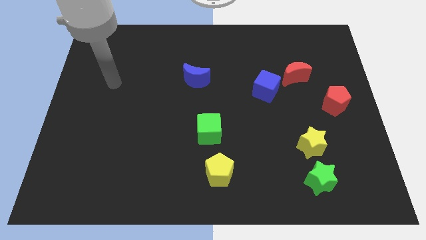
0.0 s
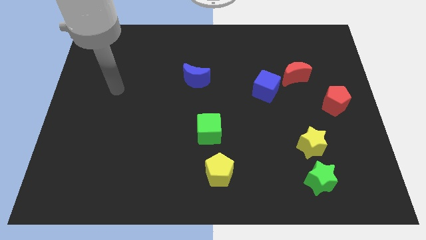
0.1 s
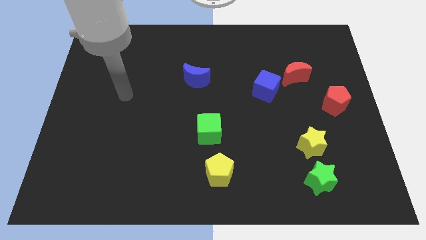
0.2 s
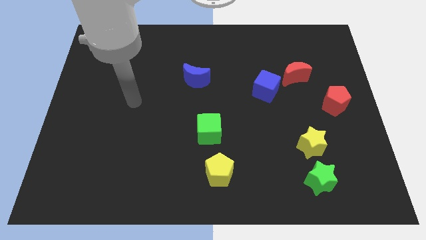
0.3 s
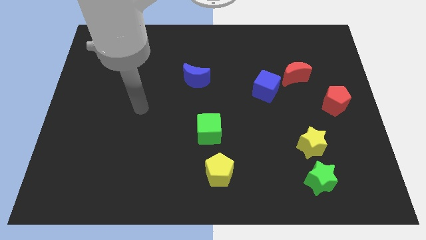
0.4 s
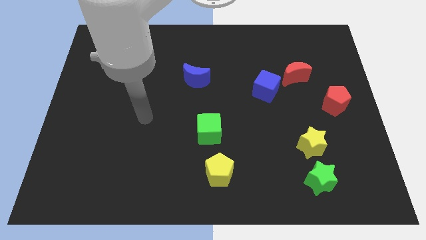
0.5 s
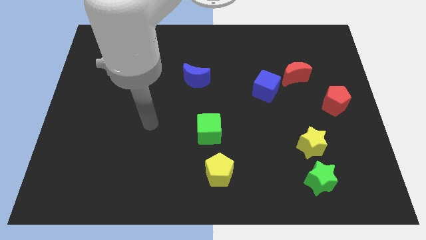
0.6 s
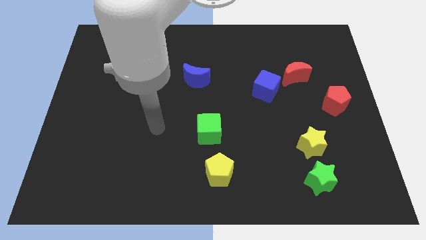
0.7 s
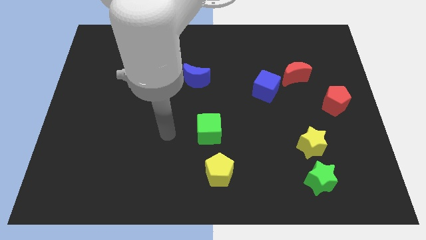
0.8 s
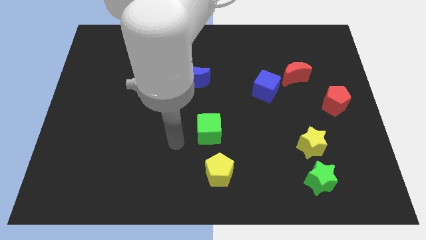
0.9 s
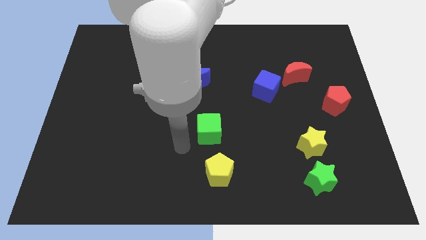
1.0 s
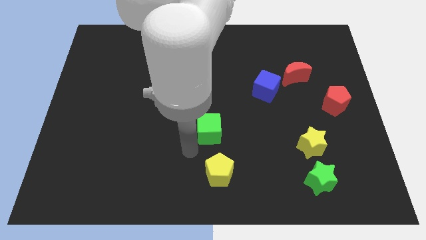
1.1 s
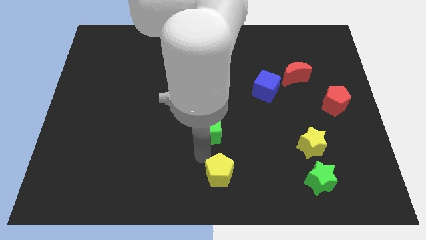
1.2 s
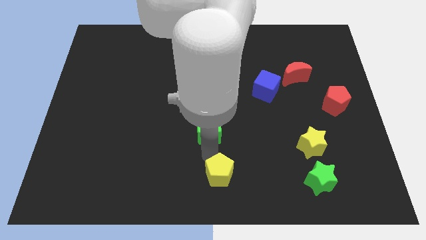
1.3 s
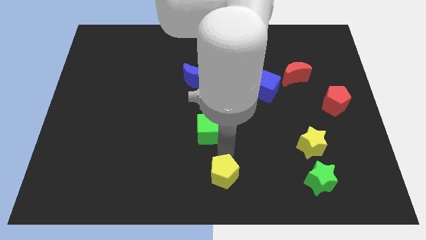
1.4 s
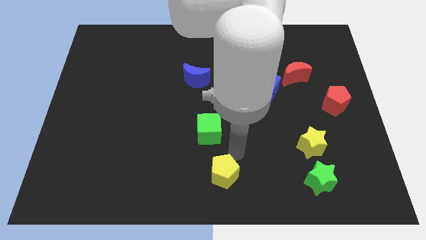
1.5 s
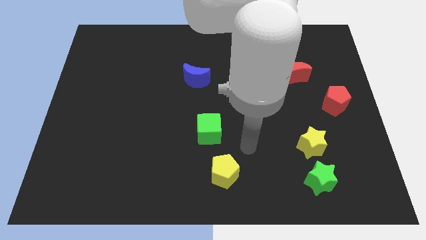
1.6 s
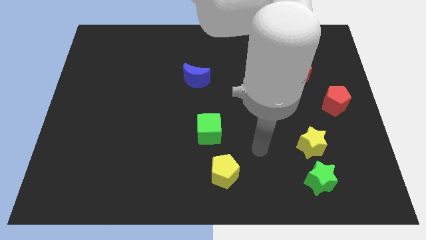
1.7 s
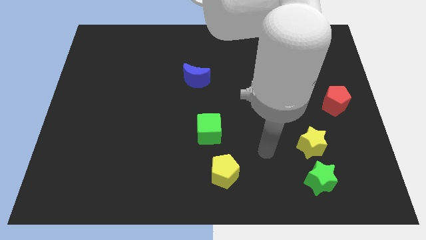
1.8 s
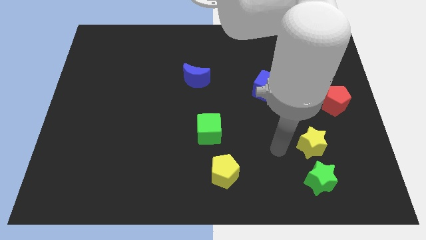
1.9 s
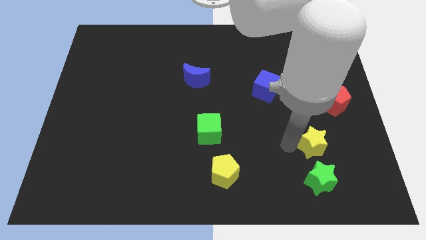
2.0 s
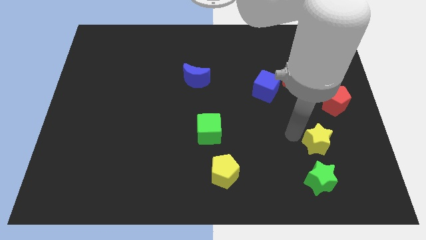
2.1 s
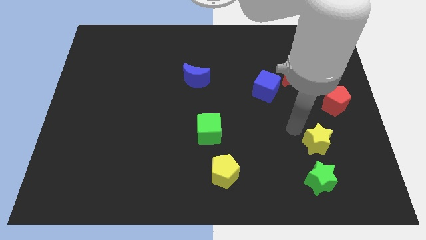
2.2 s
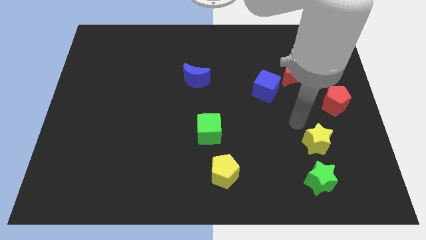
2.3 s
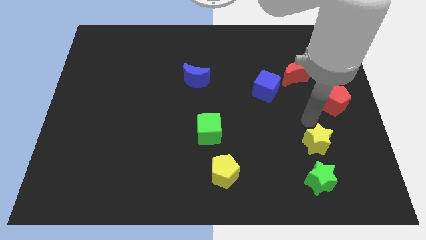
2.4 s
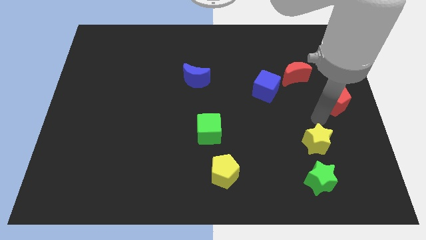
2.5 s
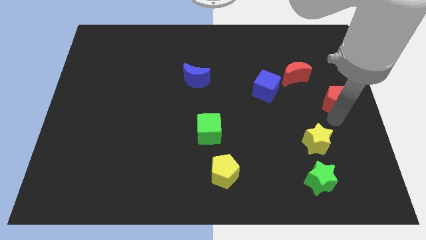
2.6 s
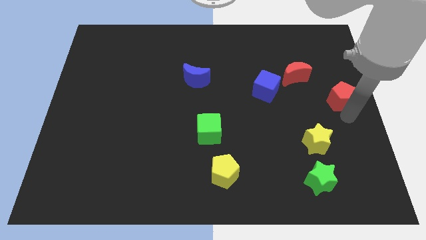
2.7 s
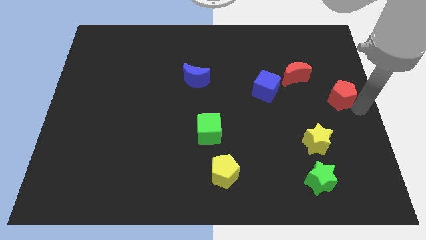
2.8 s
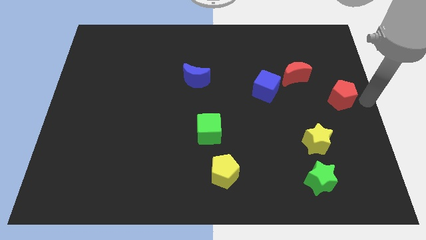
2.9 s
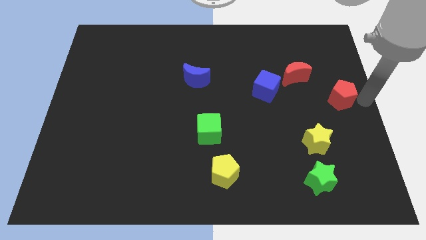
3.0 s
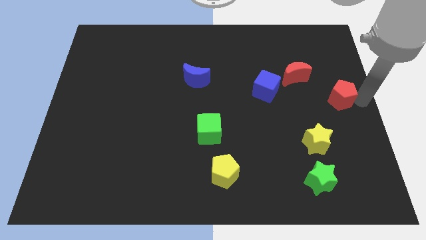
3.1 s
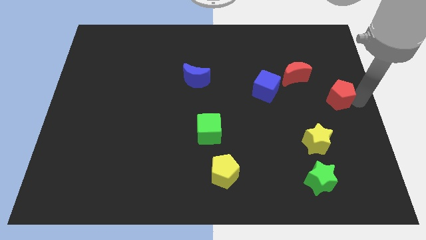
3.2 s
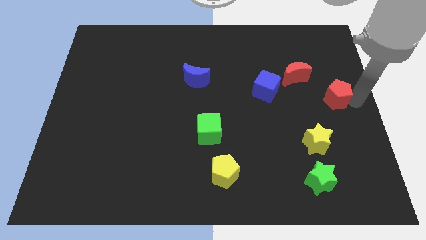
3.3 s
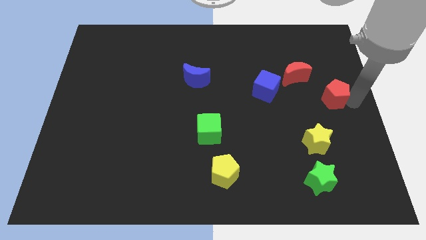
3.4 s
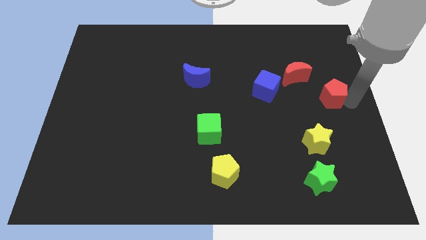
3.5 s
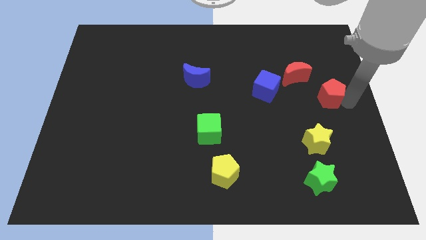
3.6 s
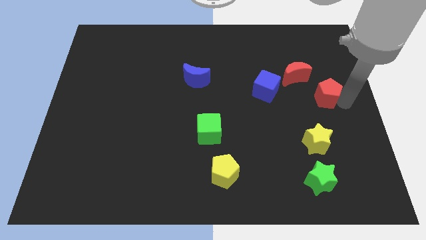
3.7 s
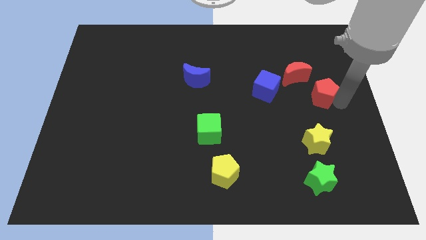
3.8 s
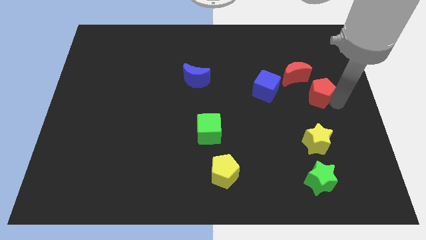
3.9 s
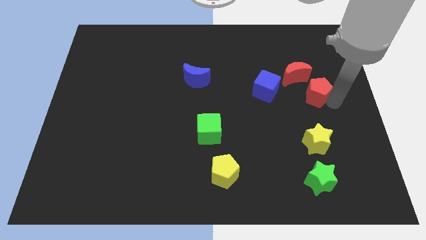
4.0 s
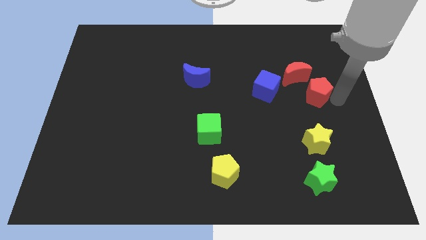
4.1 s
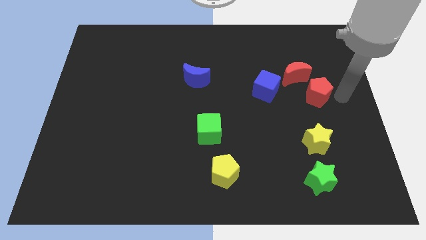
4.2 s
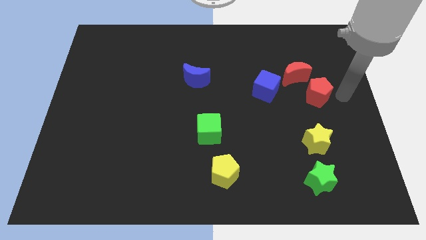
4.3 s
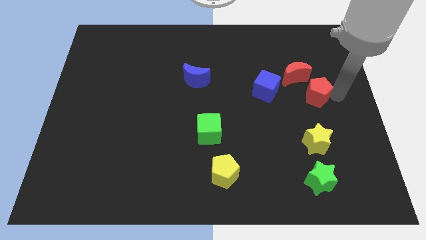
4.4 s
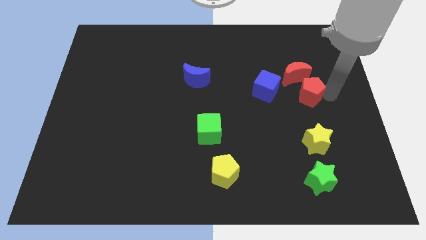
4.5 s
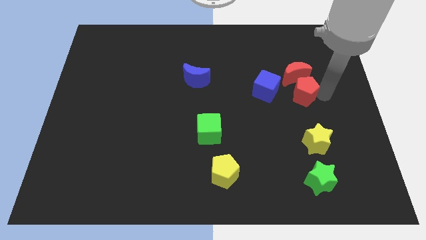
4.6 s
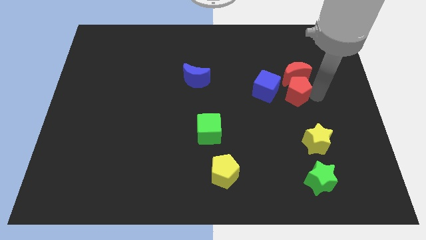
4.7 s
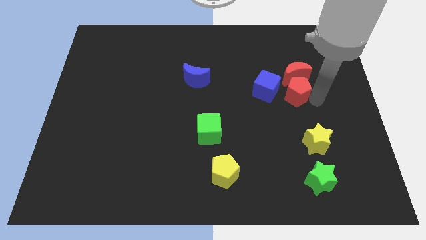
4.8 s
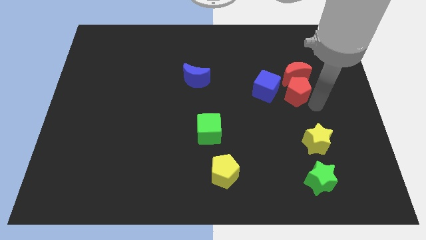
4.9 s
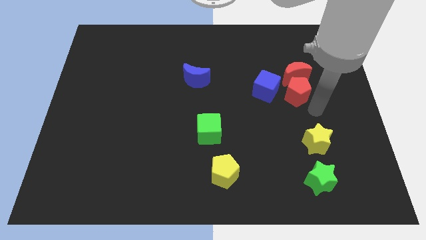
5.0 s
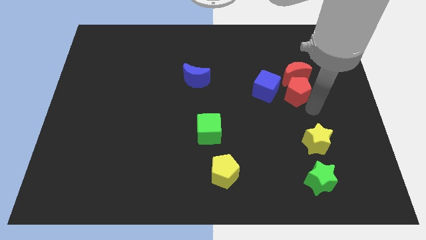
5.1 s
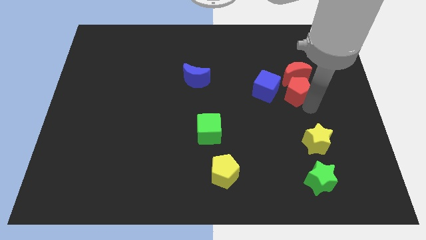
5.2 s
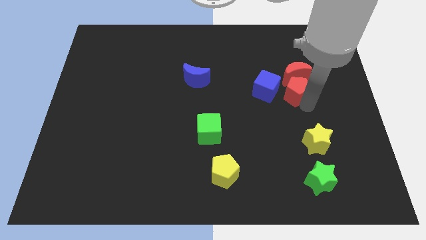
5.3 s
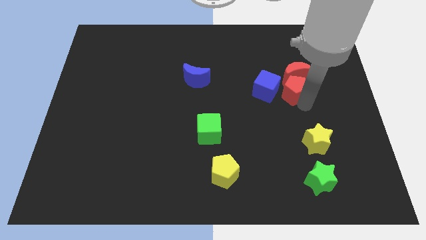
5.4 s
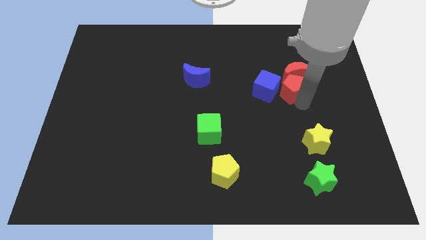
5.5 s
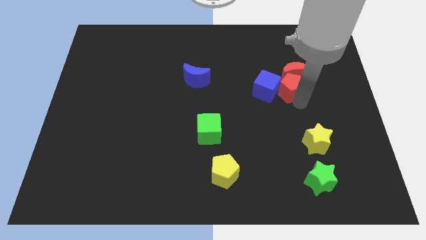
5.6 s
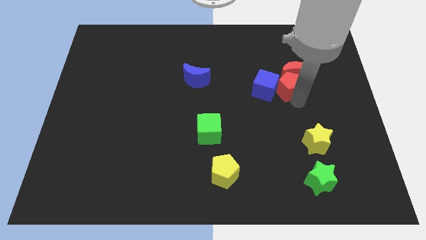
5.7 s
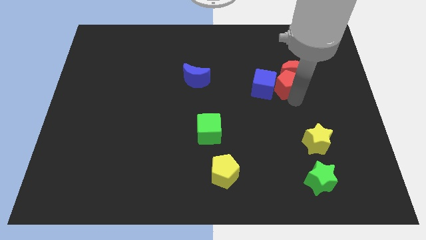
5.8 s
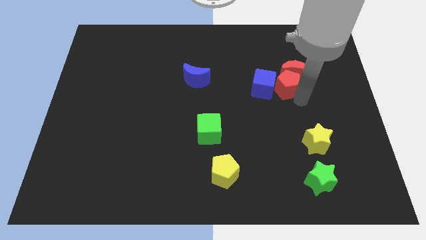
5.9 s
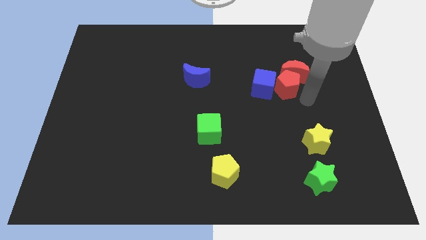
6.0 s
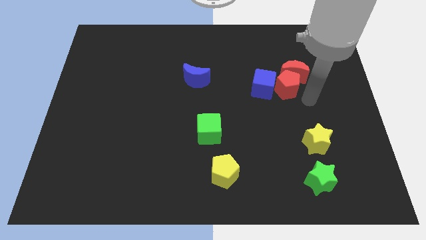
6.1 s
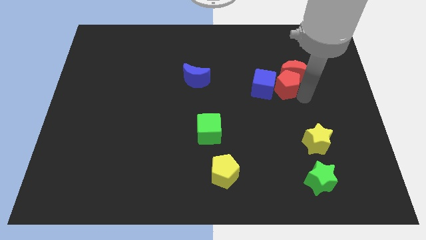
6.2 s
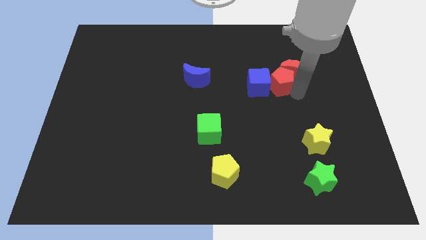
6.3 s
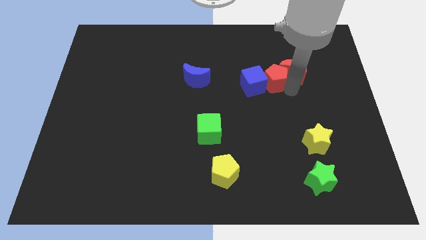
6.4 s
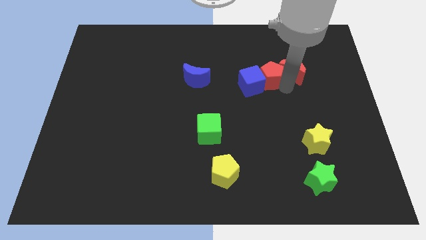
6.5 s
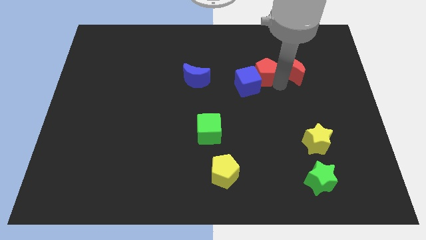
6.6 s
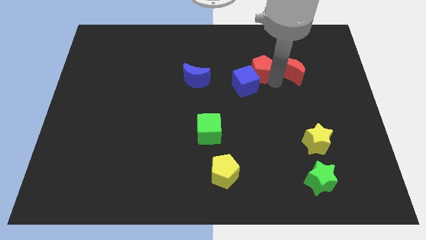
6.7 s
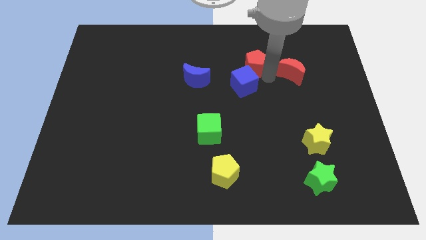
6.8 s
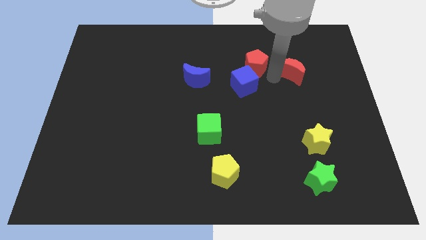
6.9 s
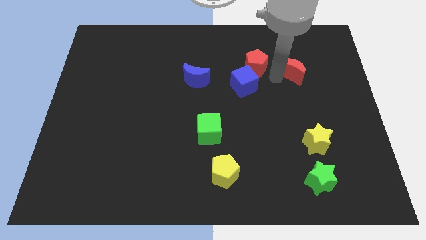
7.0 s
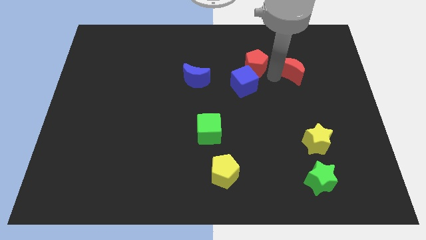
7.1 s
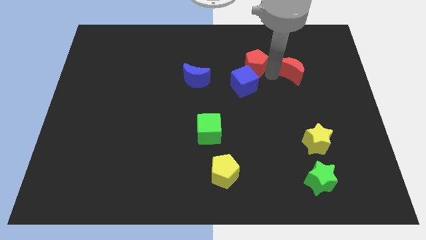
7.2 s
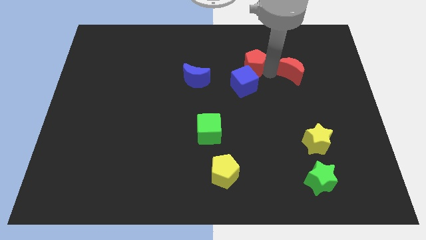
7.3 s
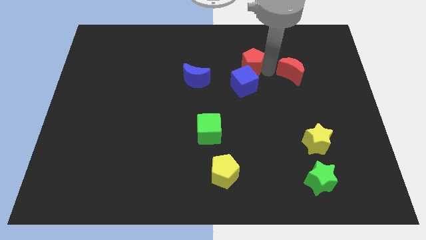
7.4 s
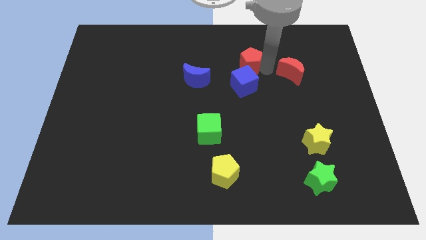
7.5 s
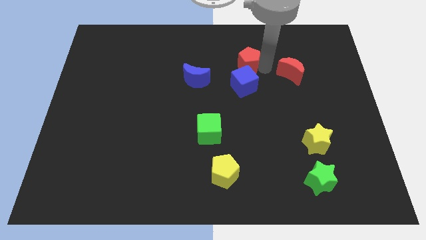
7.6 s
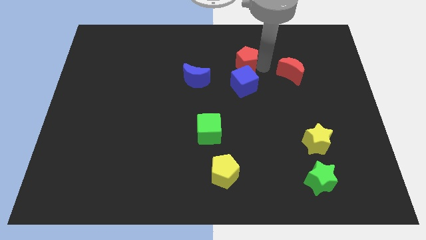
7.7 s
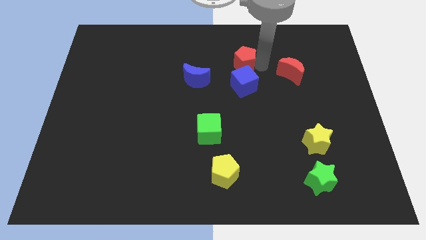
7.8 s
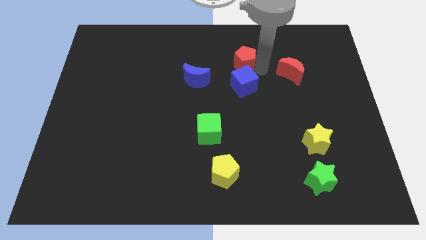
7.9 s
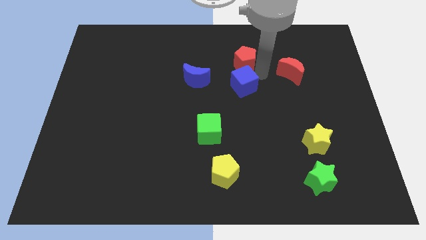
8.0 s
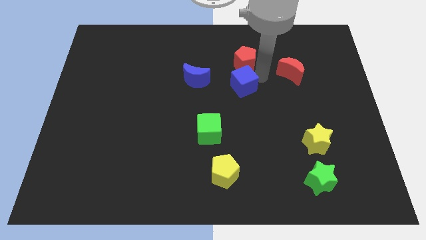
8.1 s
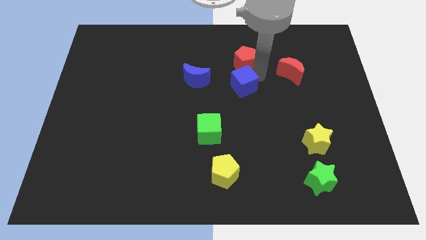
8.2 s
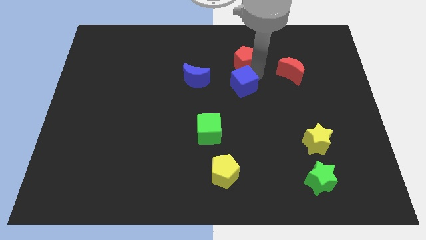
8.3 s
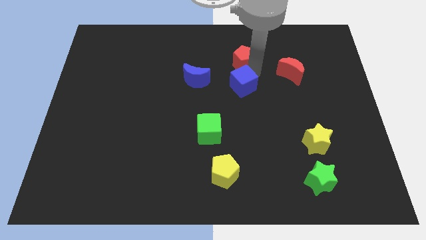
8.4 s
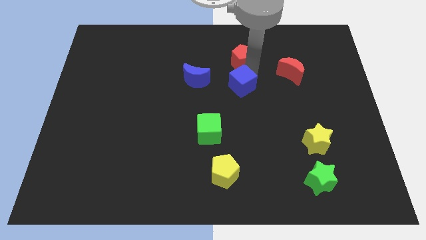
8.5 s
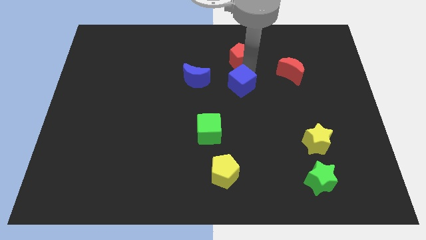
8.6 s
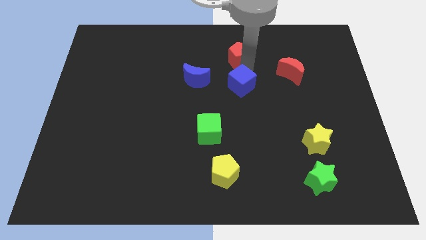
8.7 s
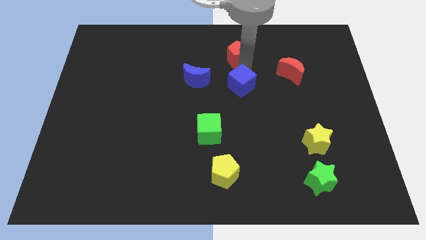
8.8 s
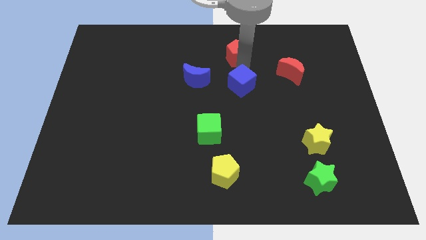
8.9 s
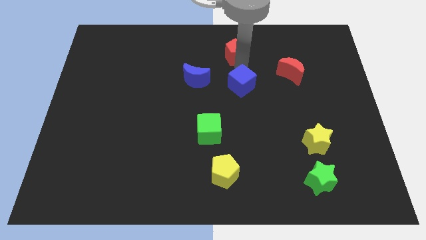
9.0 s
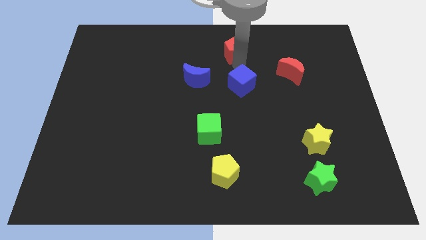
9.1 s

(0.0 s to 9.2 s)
put the red pentagon to the top side
